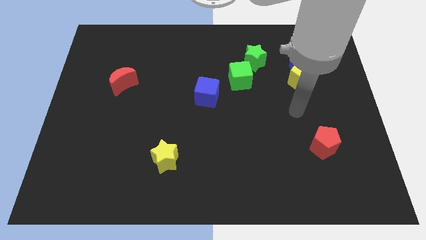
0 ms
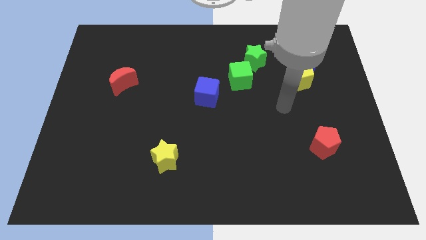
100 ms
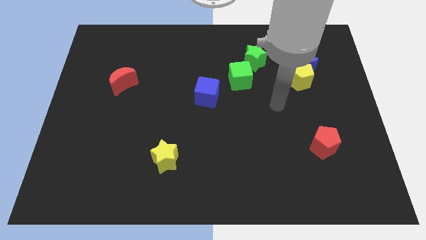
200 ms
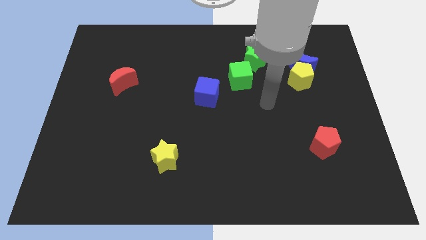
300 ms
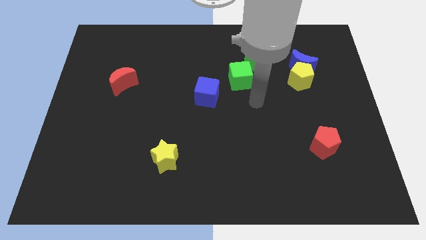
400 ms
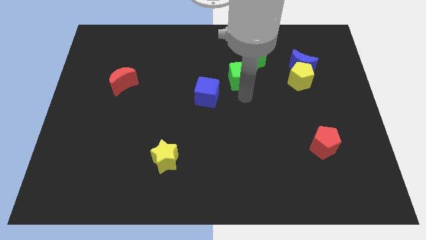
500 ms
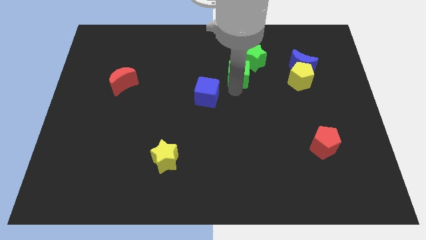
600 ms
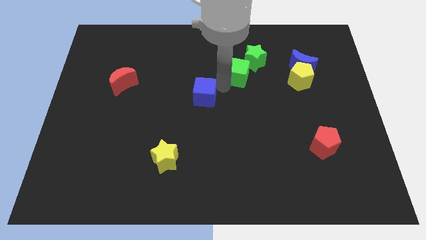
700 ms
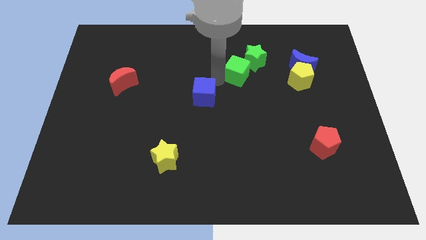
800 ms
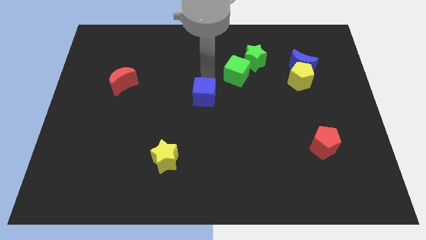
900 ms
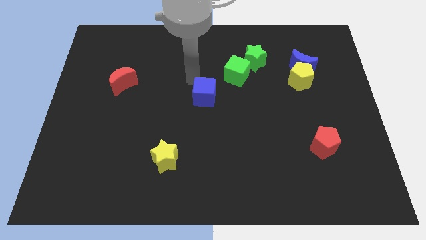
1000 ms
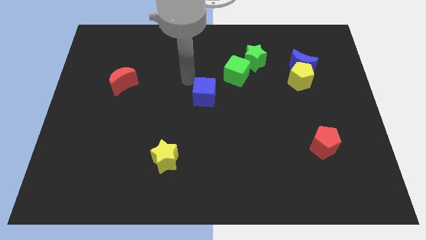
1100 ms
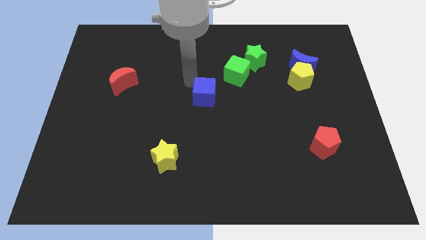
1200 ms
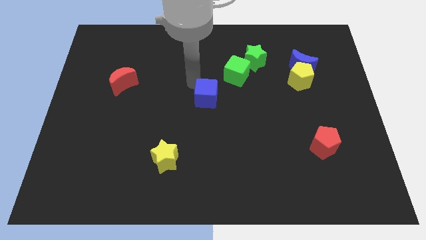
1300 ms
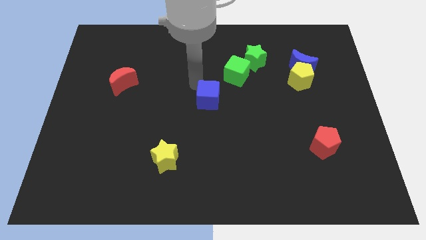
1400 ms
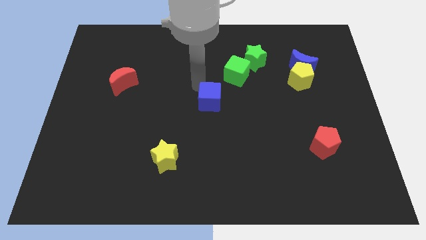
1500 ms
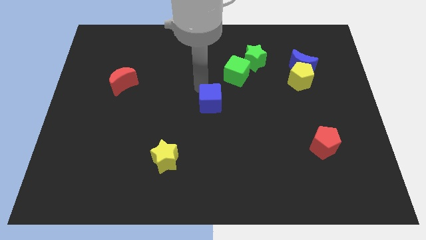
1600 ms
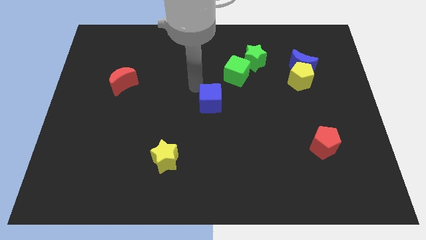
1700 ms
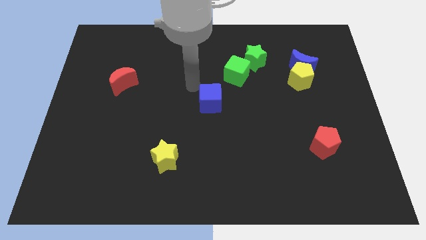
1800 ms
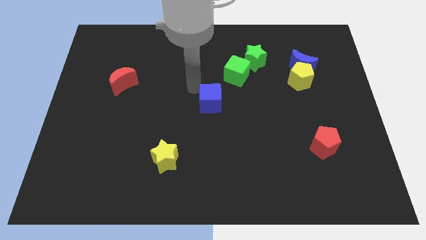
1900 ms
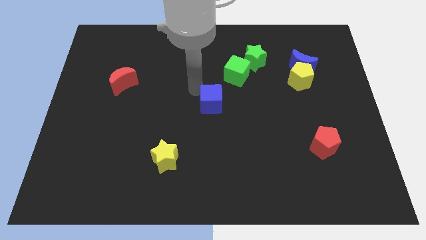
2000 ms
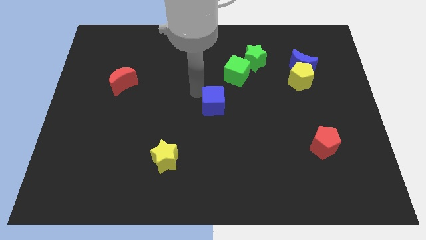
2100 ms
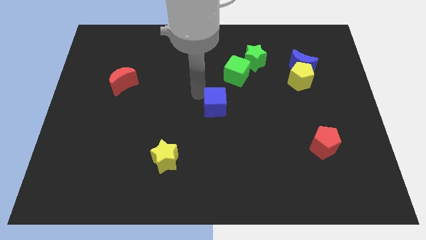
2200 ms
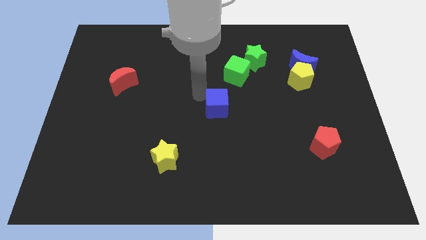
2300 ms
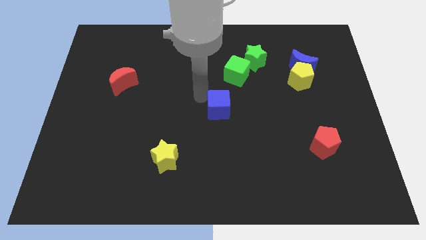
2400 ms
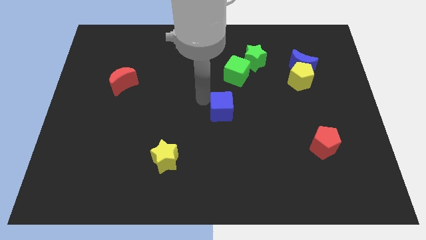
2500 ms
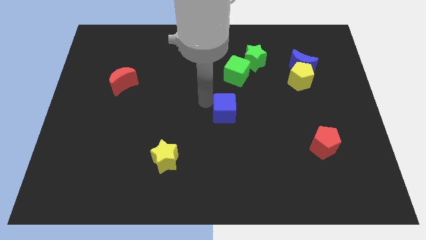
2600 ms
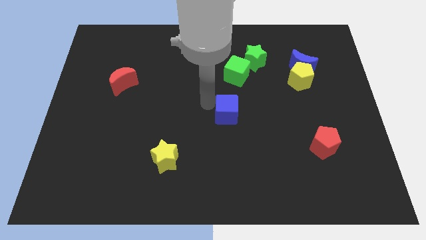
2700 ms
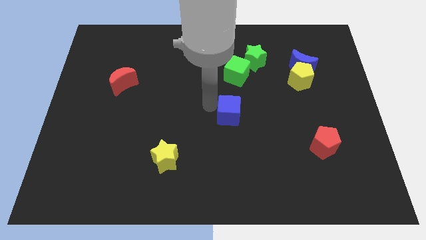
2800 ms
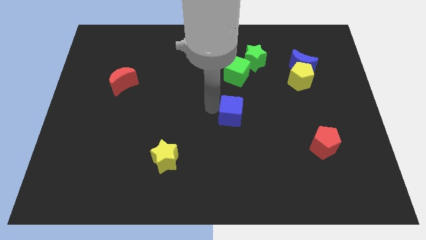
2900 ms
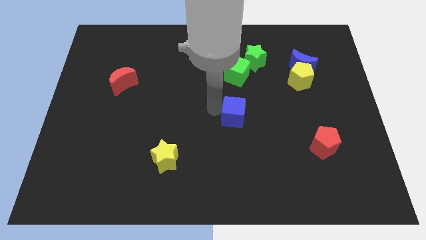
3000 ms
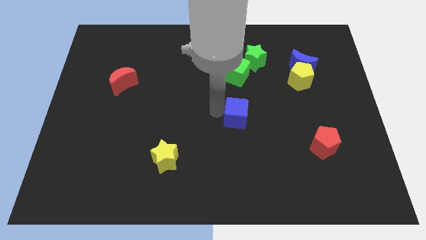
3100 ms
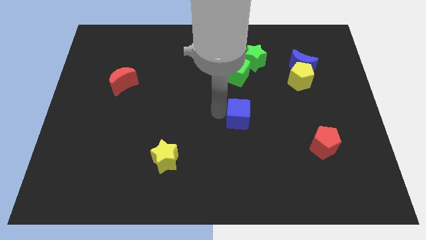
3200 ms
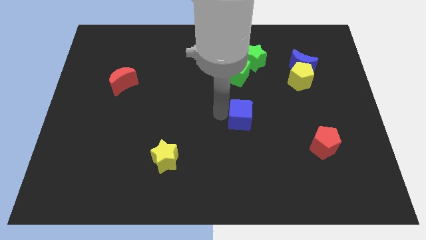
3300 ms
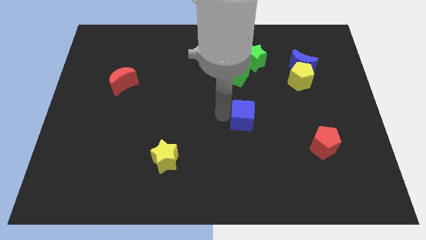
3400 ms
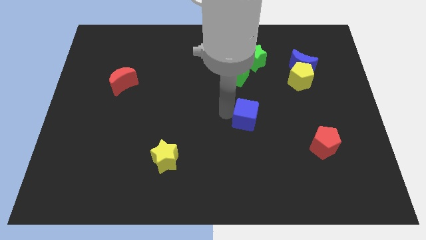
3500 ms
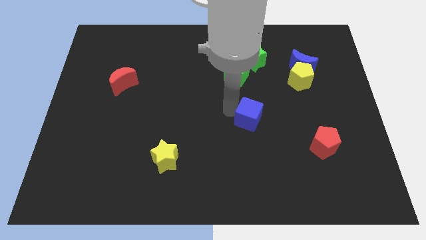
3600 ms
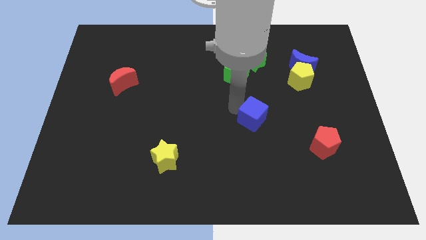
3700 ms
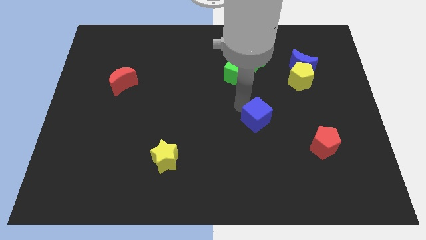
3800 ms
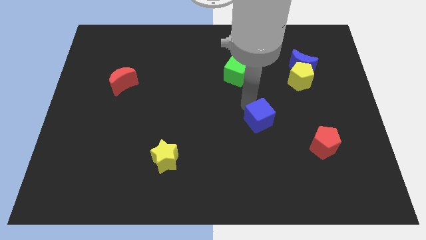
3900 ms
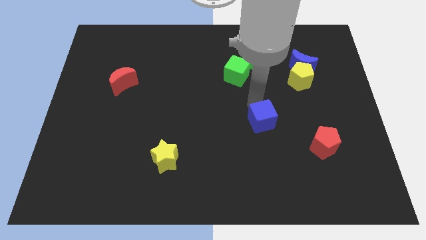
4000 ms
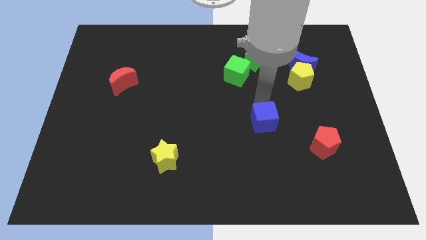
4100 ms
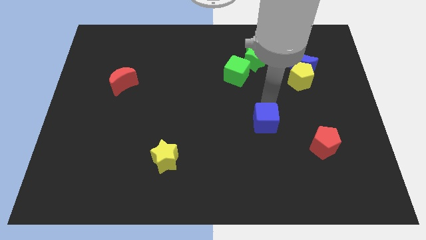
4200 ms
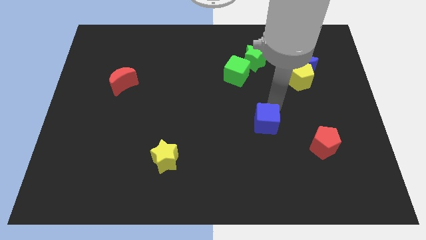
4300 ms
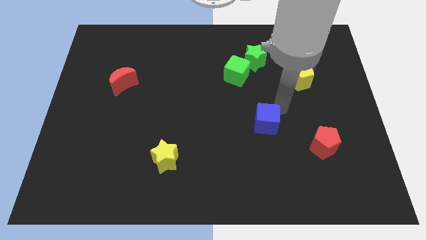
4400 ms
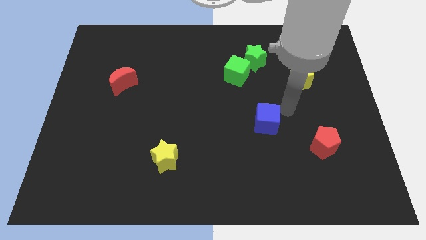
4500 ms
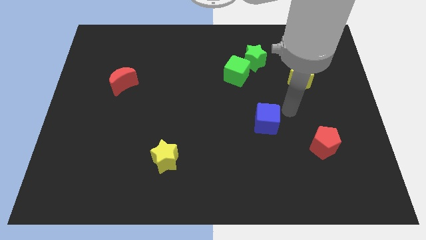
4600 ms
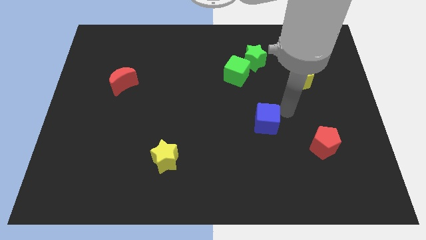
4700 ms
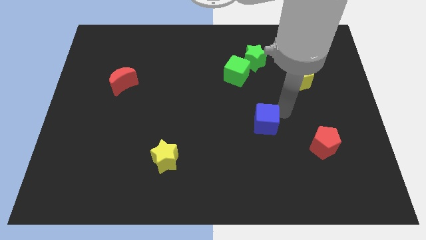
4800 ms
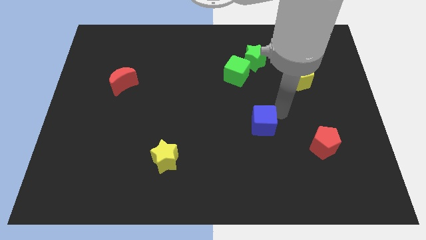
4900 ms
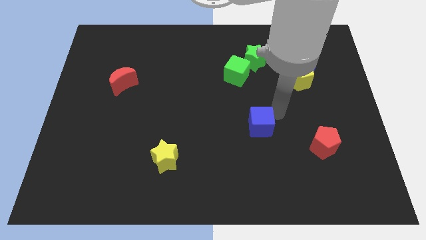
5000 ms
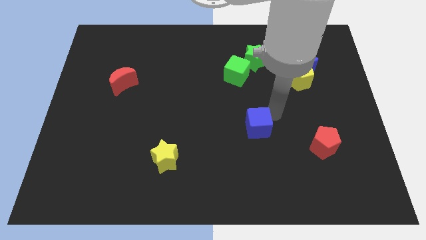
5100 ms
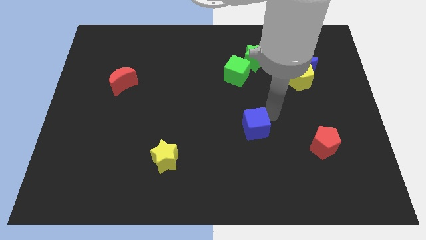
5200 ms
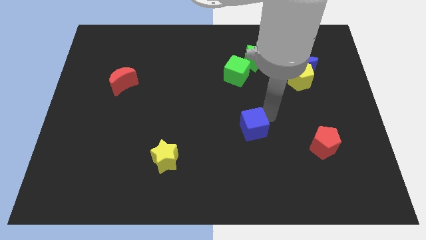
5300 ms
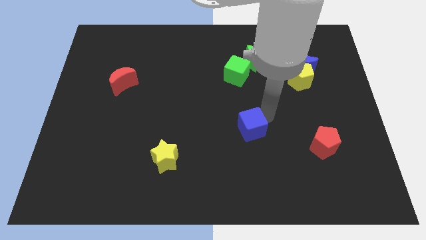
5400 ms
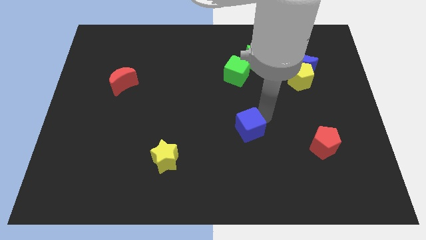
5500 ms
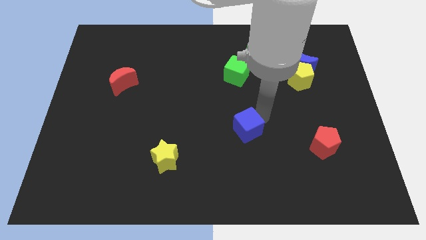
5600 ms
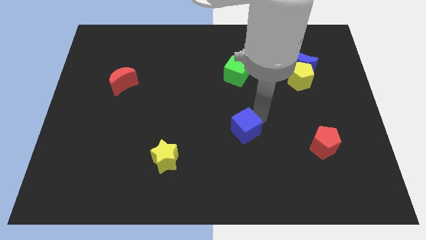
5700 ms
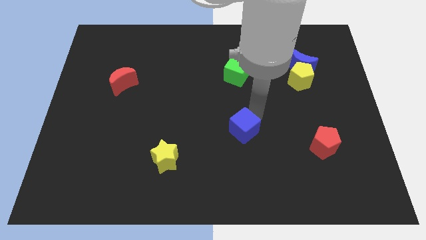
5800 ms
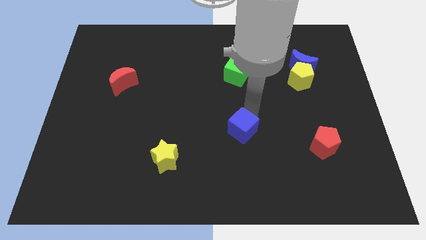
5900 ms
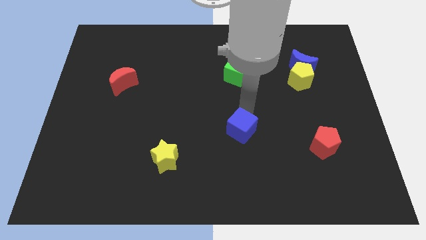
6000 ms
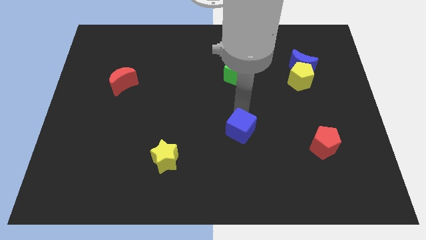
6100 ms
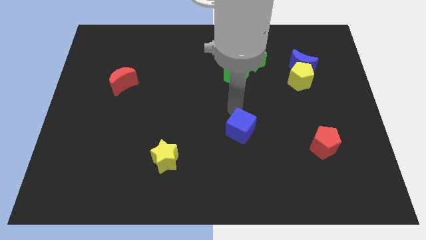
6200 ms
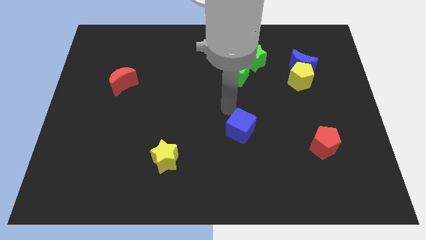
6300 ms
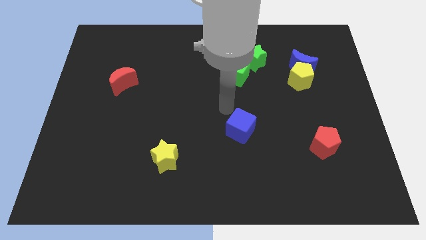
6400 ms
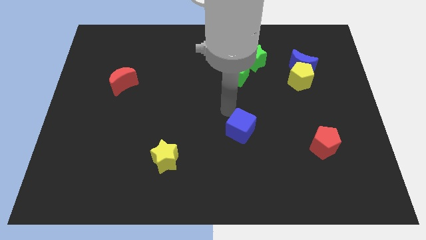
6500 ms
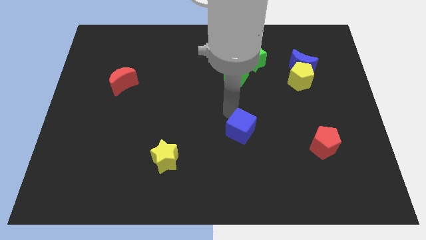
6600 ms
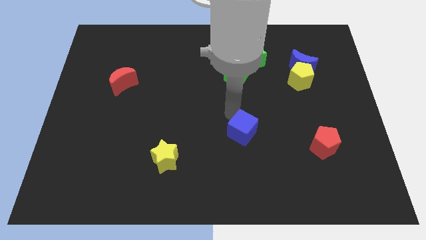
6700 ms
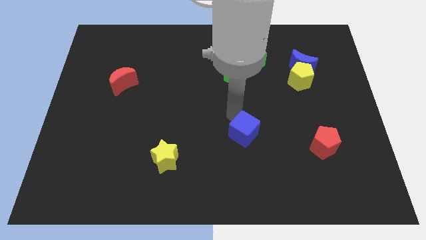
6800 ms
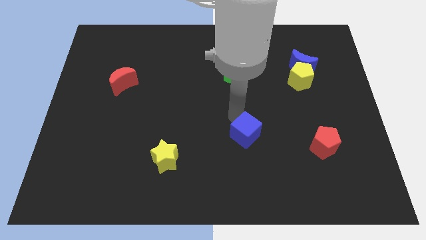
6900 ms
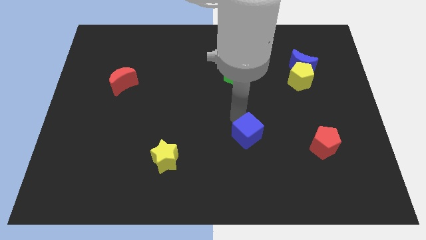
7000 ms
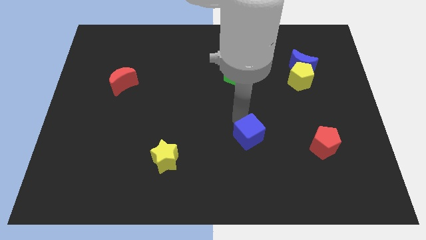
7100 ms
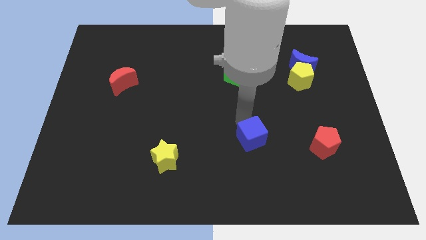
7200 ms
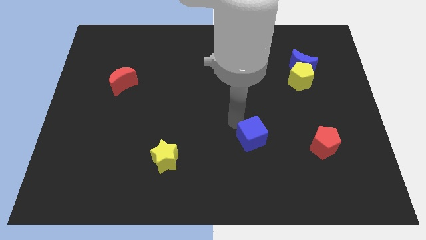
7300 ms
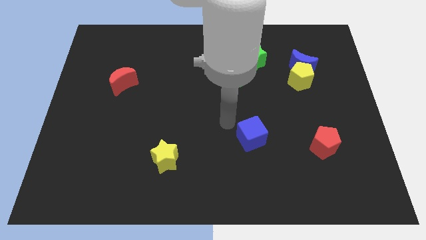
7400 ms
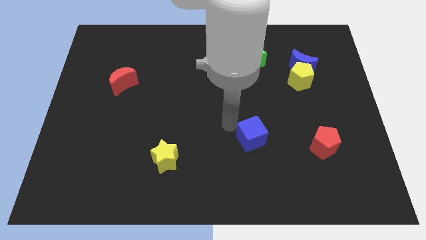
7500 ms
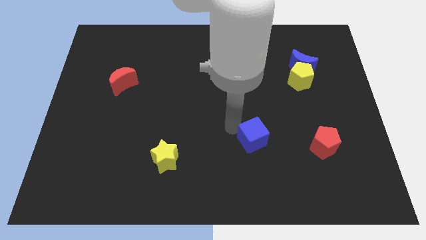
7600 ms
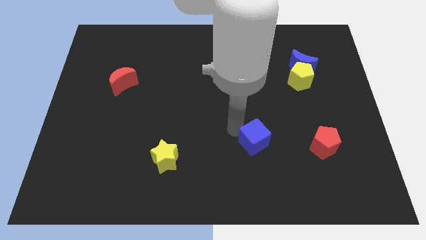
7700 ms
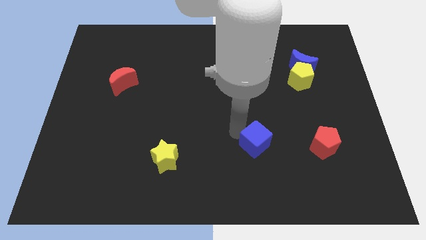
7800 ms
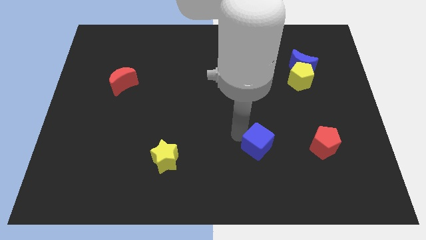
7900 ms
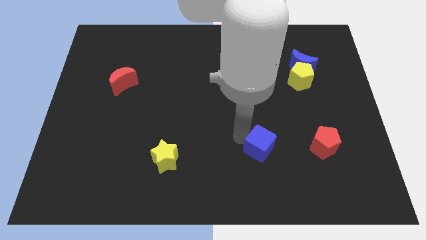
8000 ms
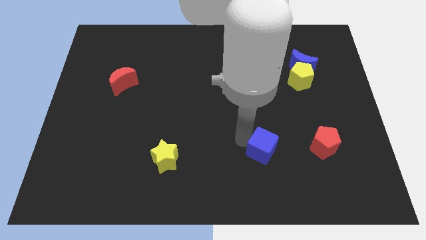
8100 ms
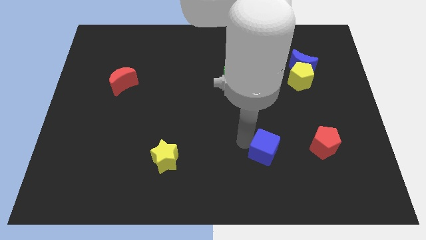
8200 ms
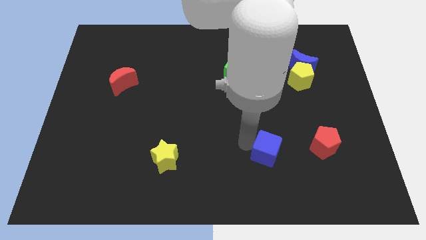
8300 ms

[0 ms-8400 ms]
push the blue cube diagonally down and to the right
